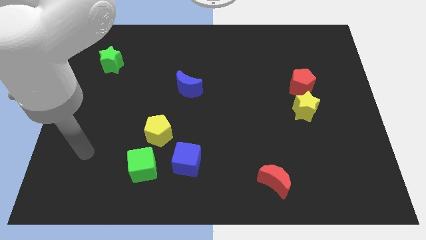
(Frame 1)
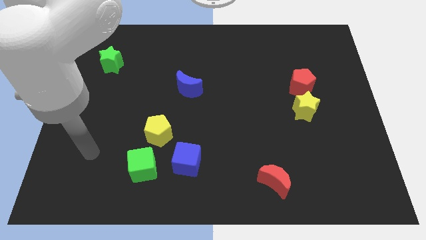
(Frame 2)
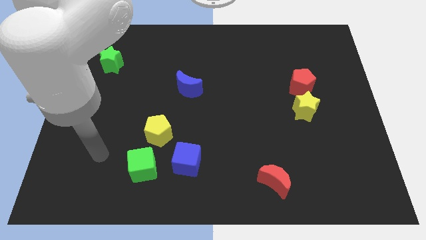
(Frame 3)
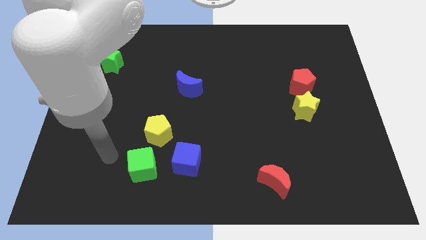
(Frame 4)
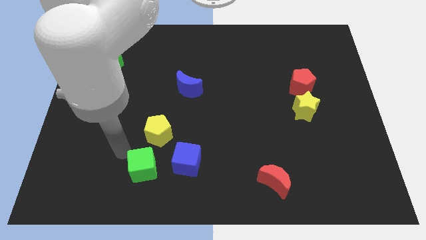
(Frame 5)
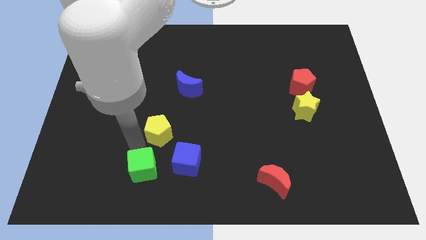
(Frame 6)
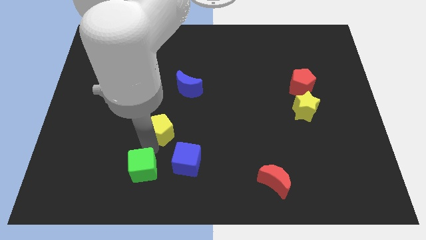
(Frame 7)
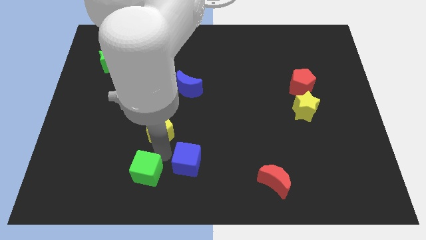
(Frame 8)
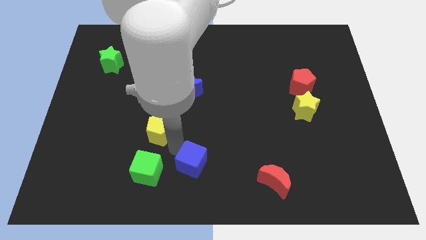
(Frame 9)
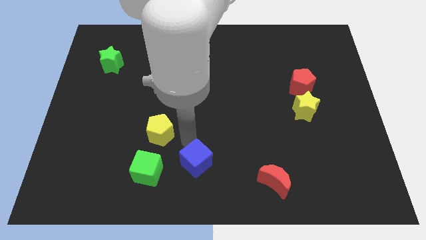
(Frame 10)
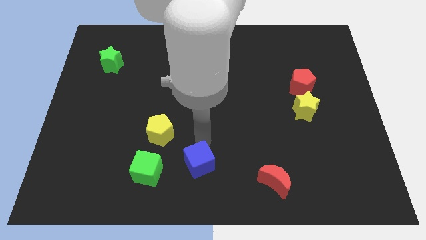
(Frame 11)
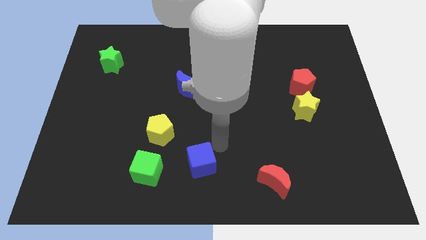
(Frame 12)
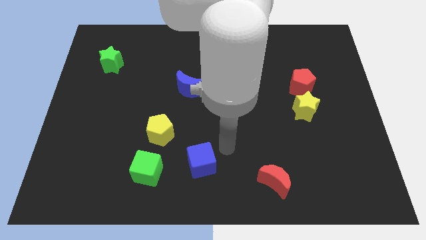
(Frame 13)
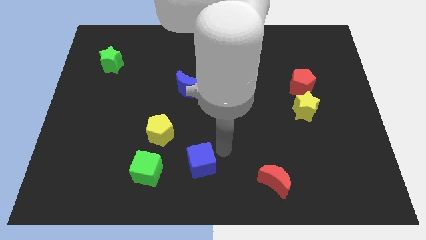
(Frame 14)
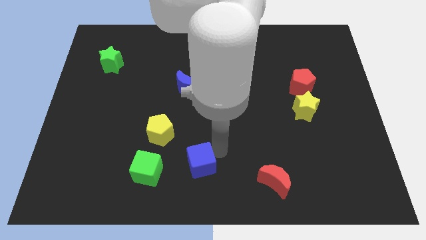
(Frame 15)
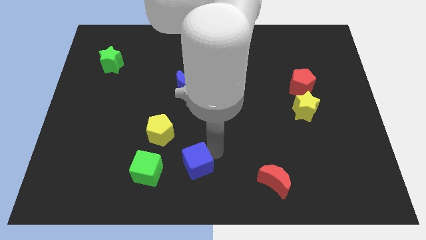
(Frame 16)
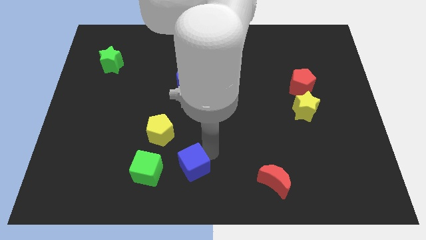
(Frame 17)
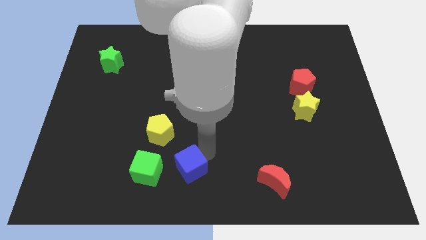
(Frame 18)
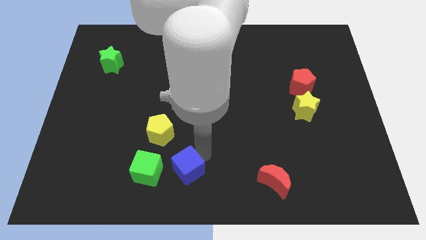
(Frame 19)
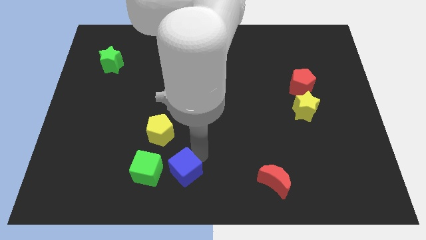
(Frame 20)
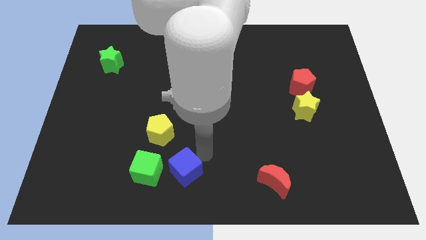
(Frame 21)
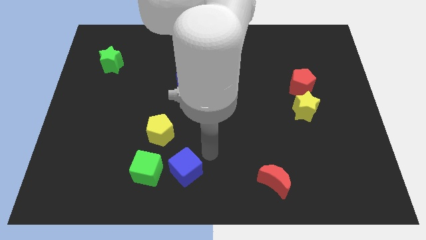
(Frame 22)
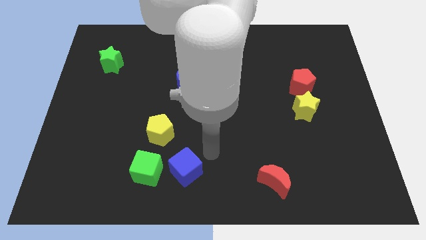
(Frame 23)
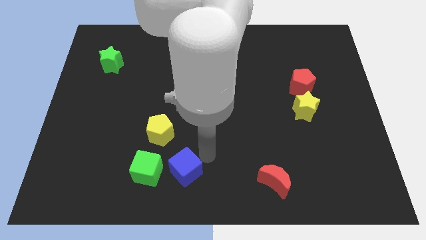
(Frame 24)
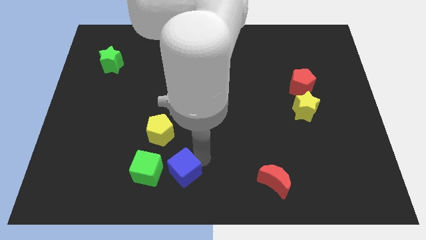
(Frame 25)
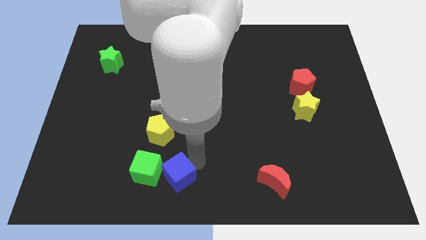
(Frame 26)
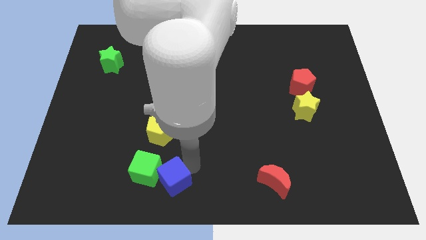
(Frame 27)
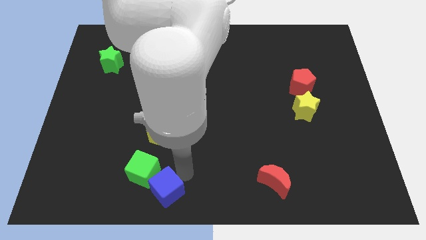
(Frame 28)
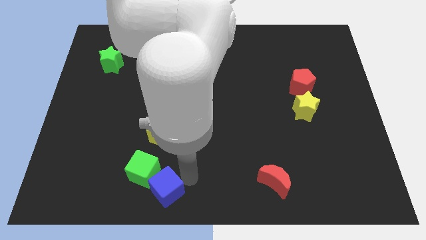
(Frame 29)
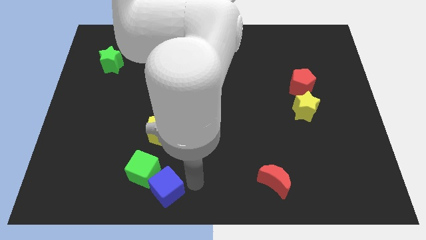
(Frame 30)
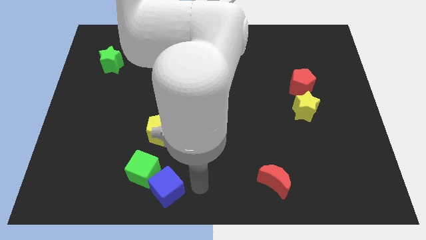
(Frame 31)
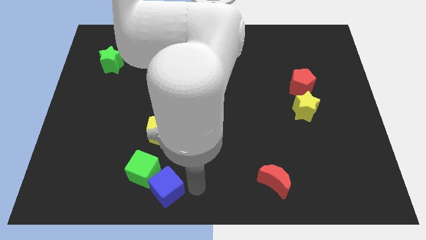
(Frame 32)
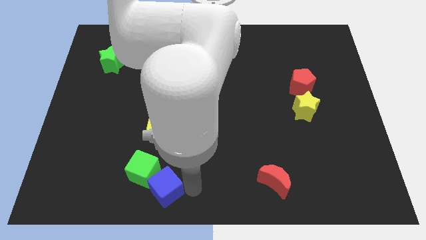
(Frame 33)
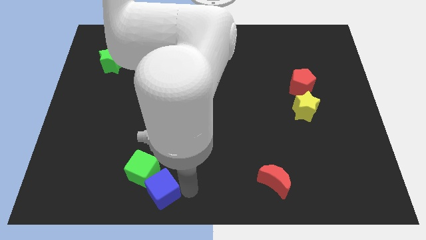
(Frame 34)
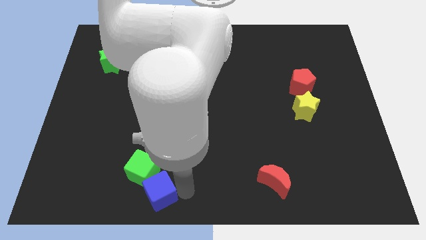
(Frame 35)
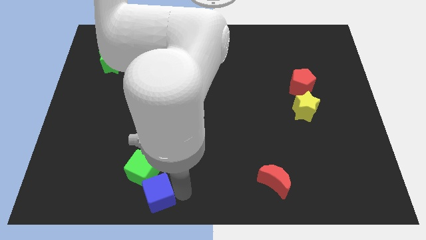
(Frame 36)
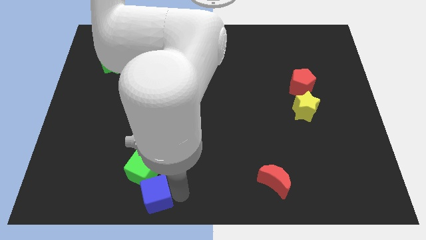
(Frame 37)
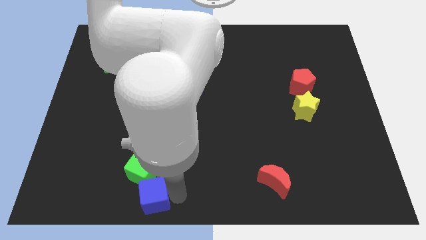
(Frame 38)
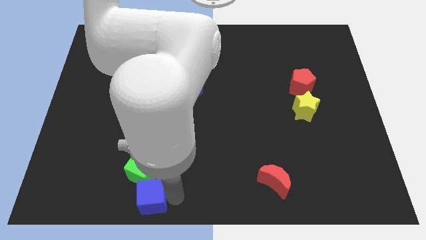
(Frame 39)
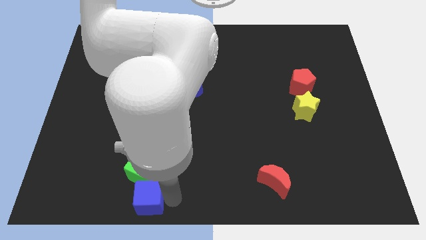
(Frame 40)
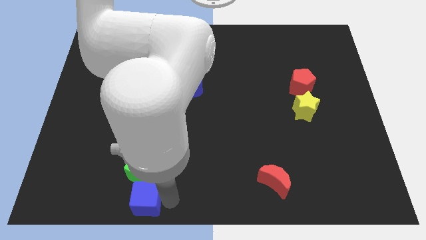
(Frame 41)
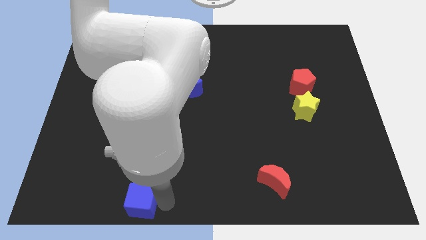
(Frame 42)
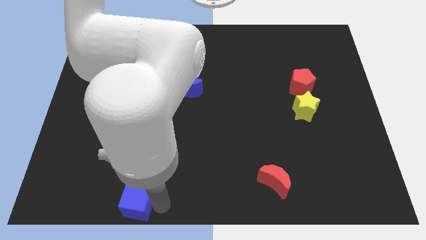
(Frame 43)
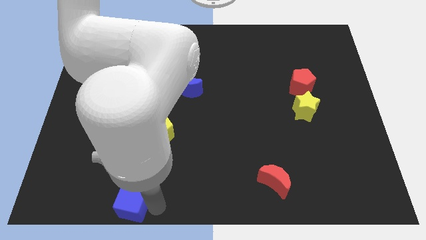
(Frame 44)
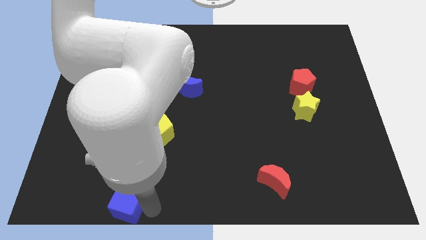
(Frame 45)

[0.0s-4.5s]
push the blue cube left somewhat

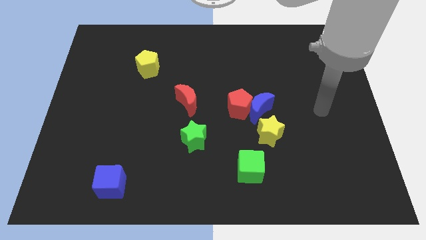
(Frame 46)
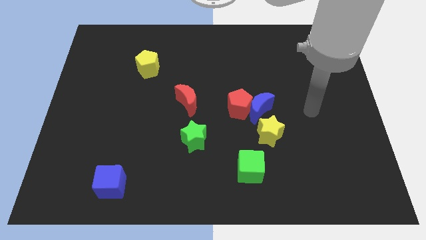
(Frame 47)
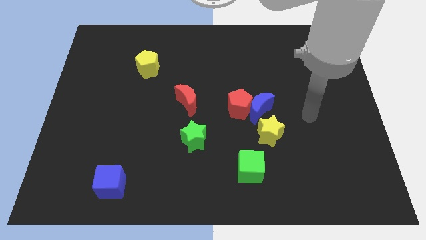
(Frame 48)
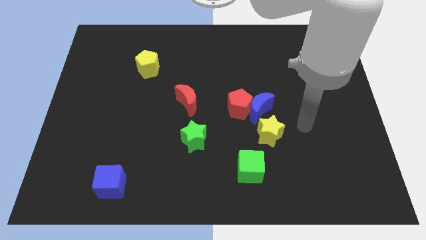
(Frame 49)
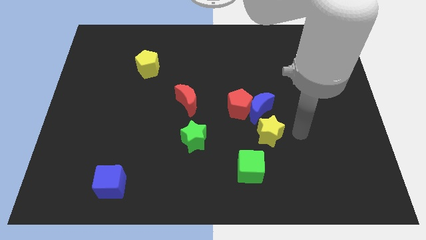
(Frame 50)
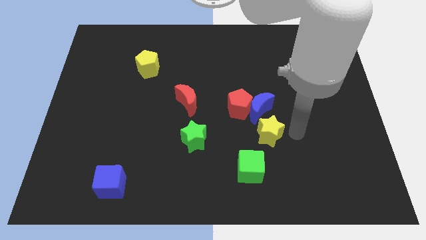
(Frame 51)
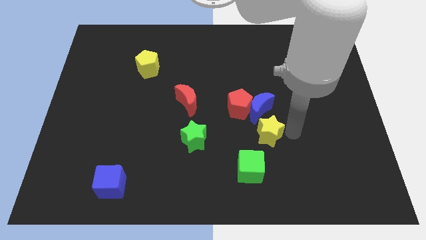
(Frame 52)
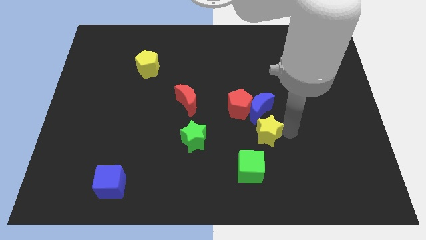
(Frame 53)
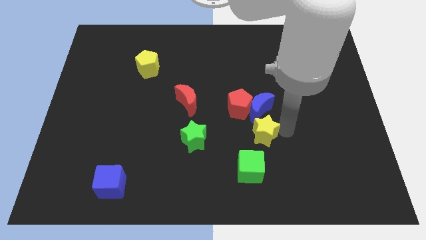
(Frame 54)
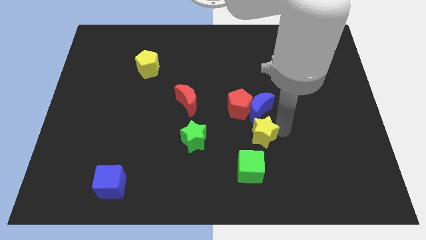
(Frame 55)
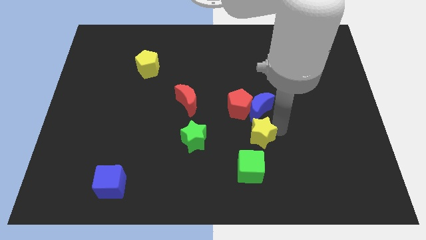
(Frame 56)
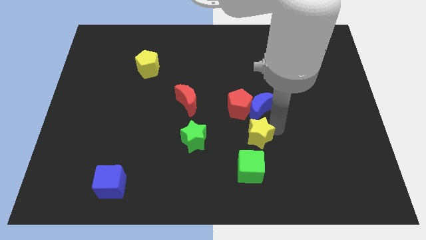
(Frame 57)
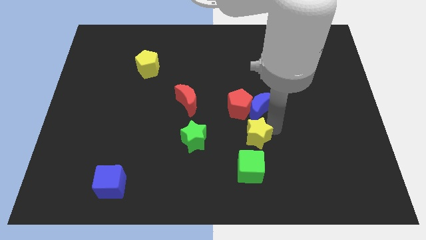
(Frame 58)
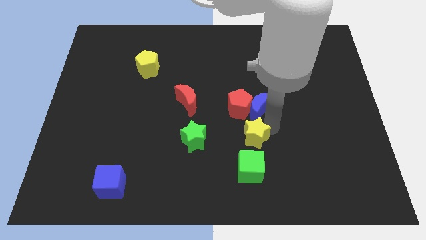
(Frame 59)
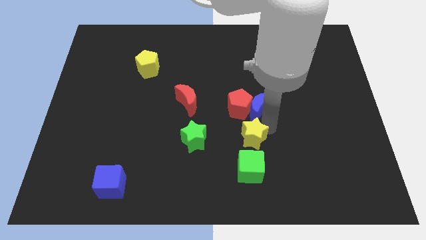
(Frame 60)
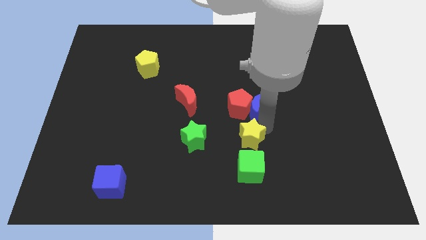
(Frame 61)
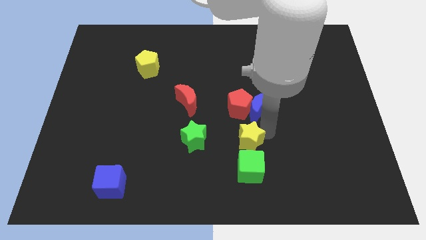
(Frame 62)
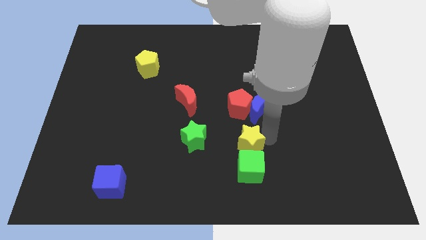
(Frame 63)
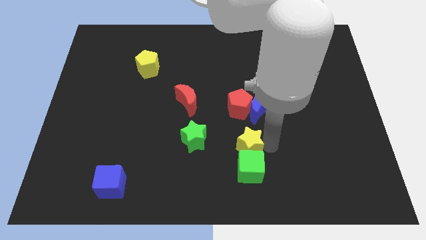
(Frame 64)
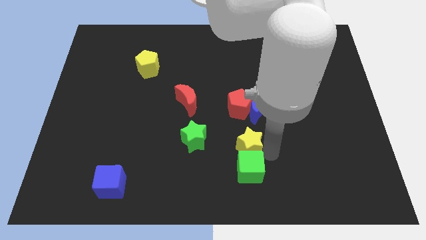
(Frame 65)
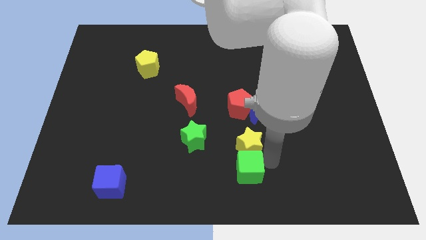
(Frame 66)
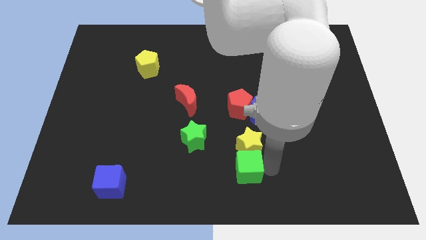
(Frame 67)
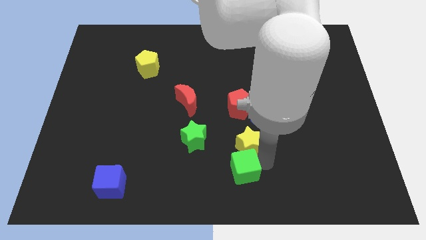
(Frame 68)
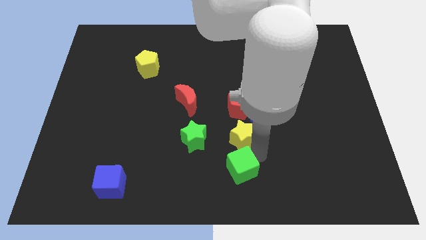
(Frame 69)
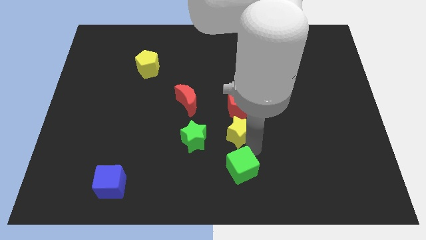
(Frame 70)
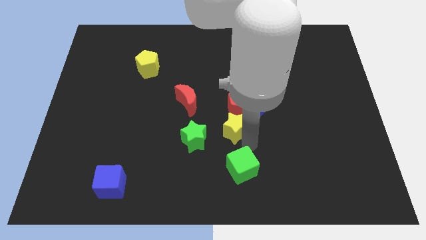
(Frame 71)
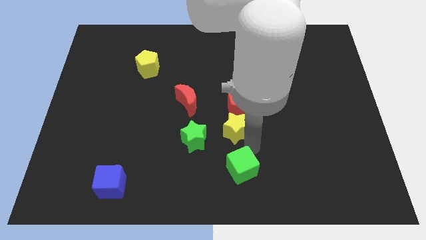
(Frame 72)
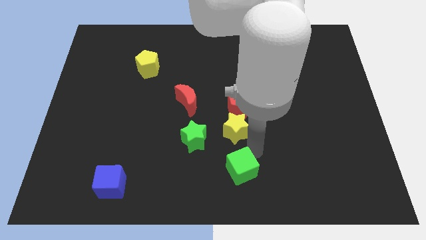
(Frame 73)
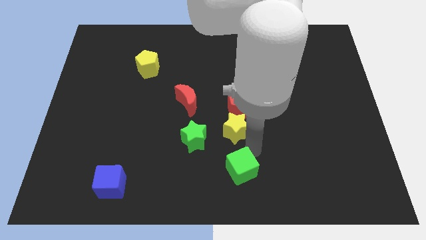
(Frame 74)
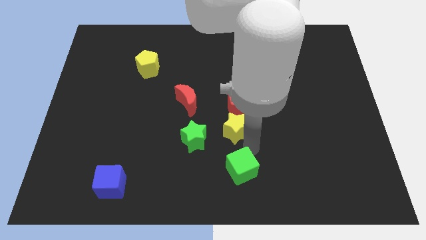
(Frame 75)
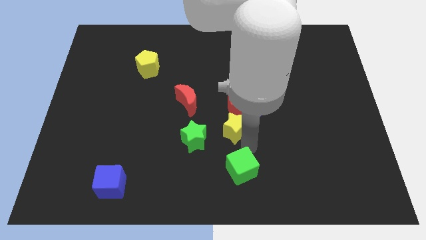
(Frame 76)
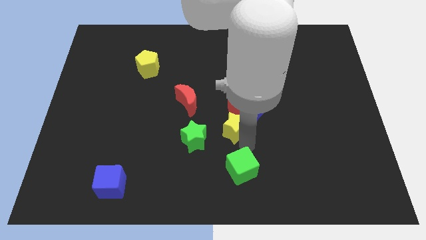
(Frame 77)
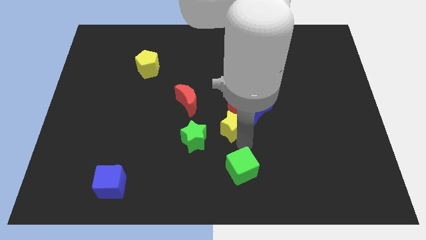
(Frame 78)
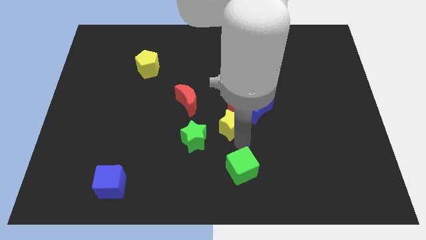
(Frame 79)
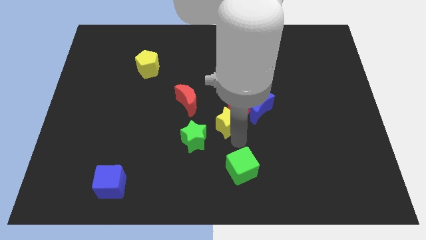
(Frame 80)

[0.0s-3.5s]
slightly push the yellow star up and then to the left

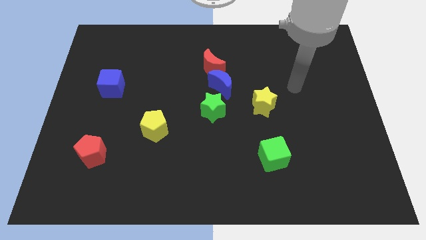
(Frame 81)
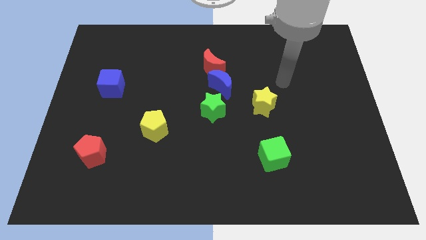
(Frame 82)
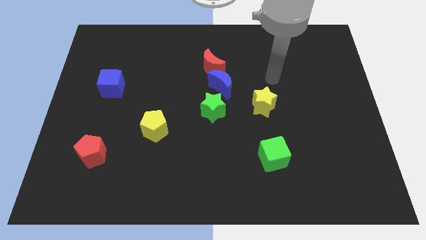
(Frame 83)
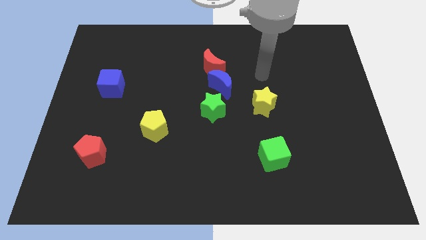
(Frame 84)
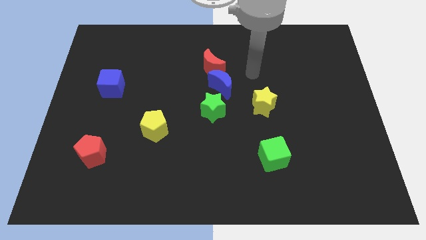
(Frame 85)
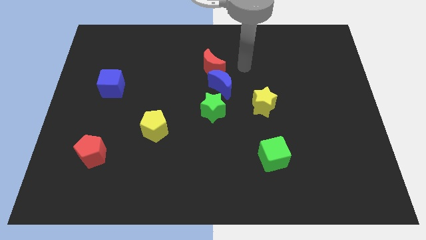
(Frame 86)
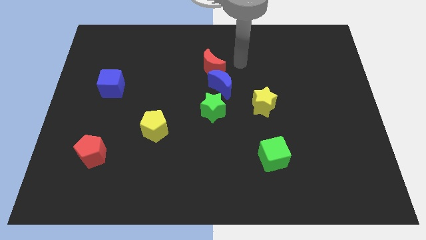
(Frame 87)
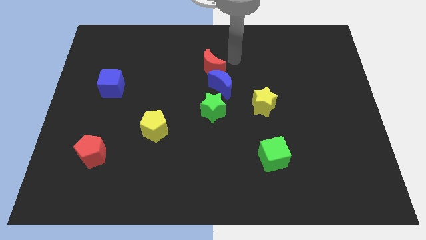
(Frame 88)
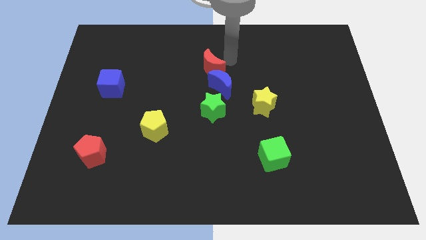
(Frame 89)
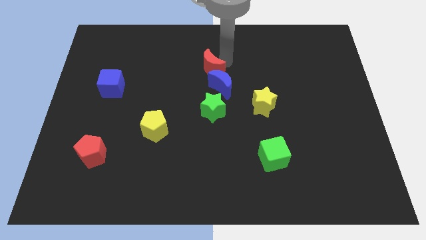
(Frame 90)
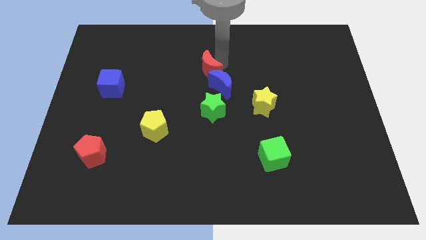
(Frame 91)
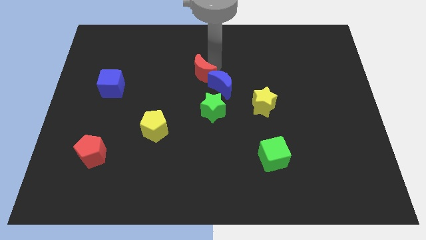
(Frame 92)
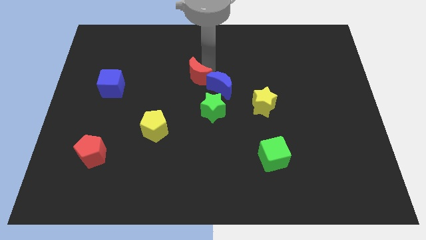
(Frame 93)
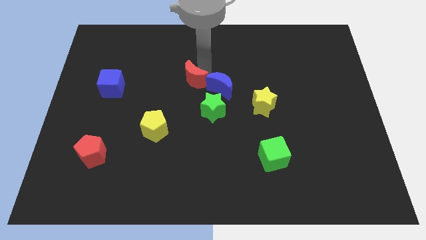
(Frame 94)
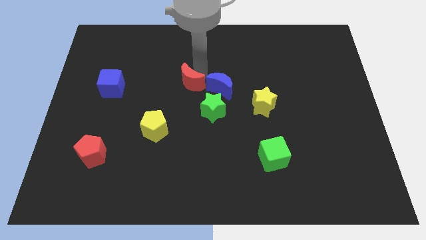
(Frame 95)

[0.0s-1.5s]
push the red moon down and then left a bit
